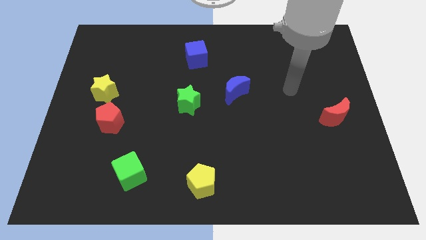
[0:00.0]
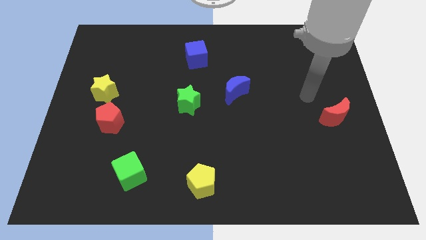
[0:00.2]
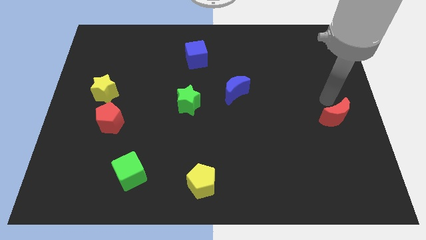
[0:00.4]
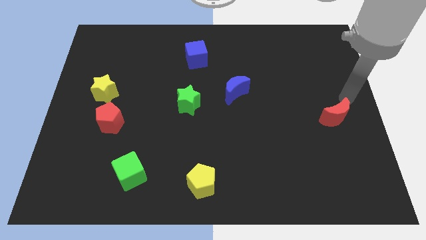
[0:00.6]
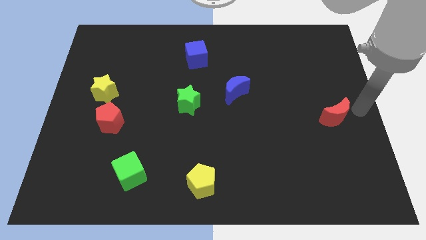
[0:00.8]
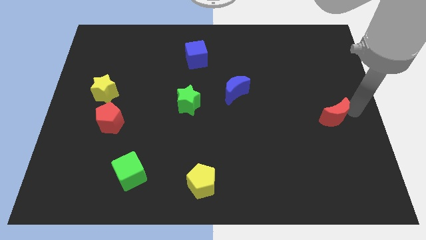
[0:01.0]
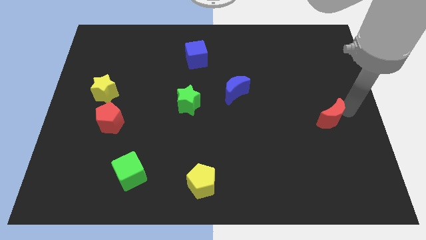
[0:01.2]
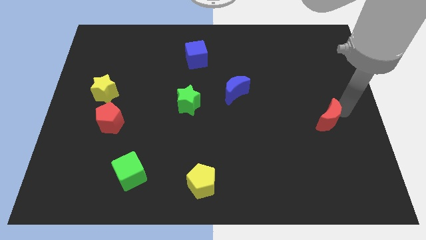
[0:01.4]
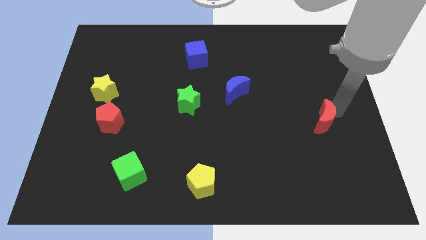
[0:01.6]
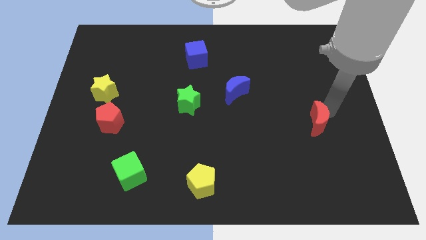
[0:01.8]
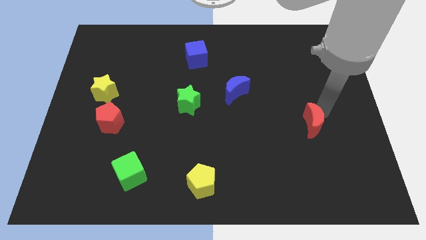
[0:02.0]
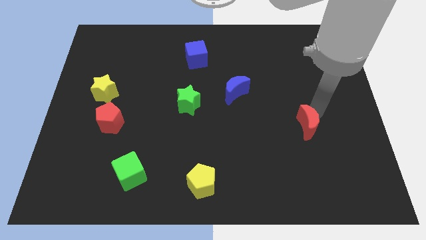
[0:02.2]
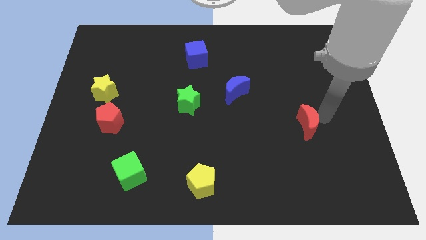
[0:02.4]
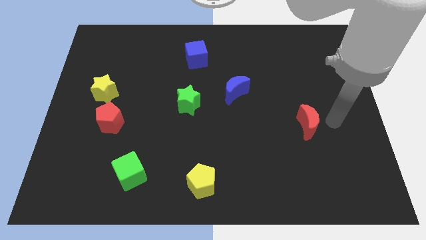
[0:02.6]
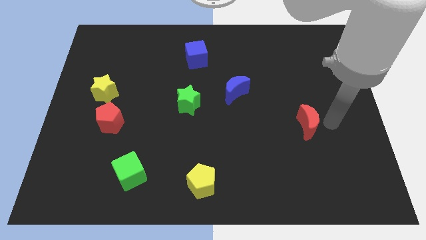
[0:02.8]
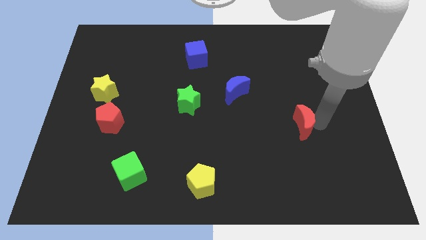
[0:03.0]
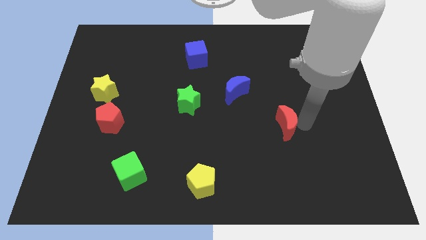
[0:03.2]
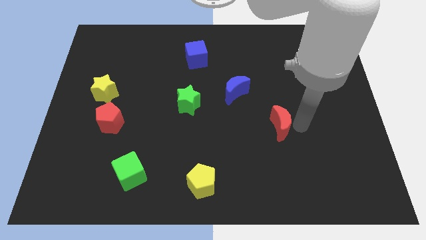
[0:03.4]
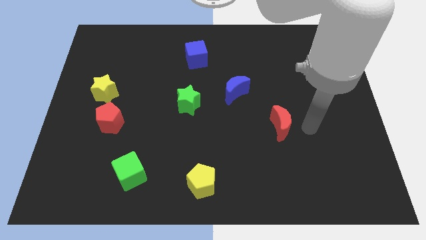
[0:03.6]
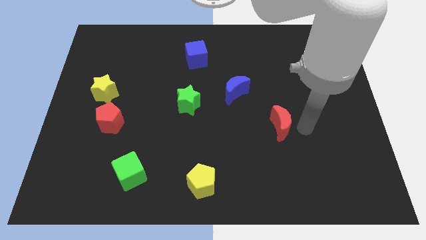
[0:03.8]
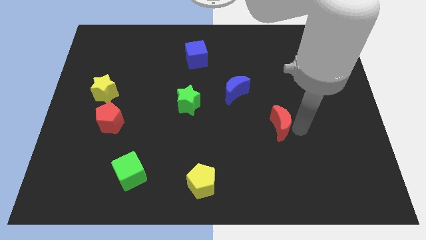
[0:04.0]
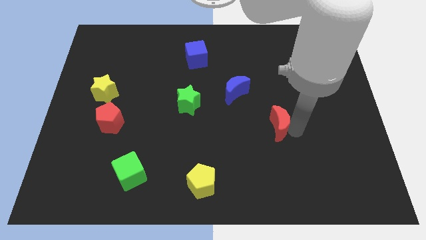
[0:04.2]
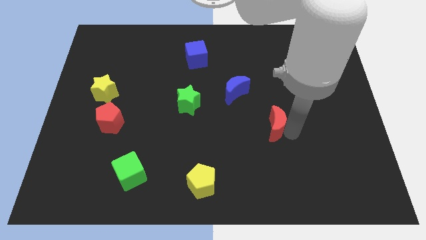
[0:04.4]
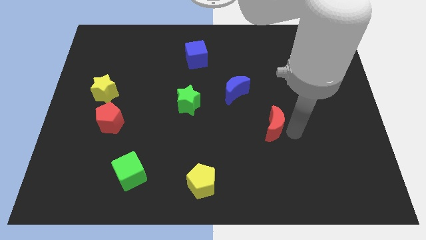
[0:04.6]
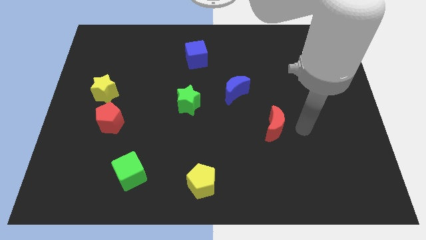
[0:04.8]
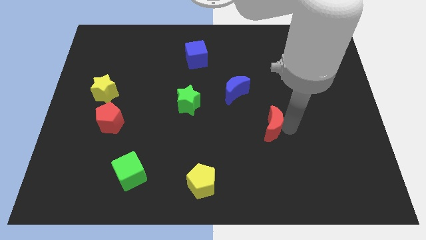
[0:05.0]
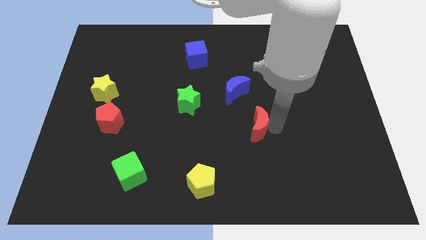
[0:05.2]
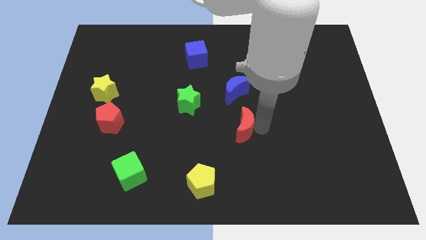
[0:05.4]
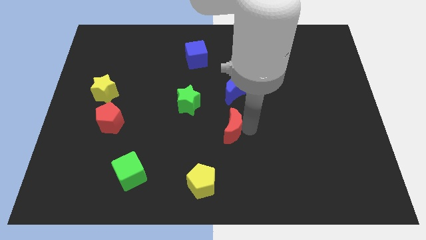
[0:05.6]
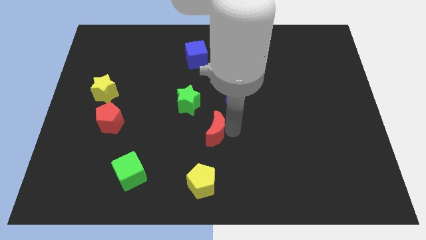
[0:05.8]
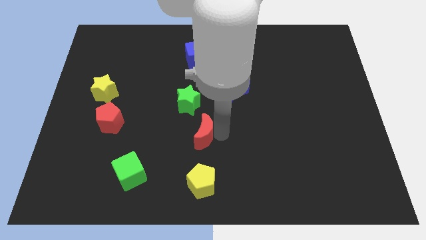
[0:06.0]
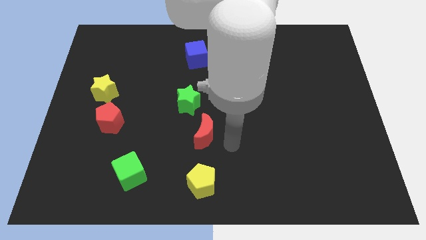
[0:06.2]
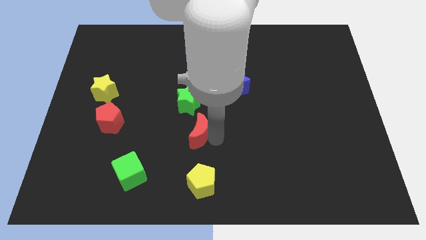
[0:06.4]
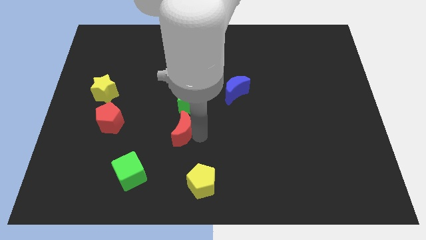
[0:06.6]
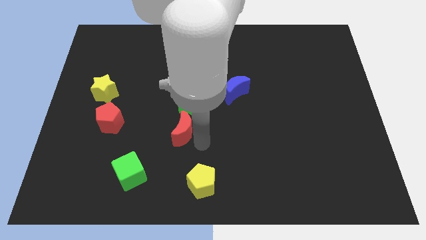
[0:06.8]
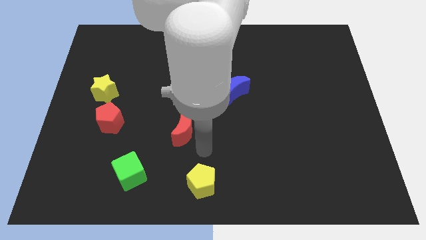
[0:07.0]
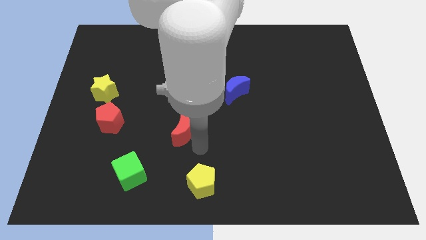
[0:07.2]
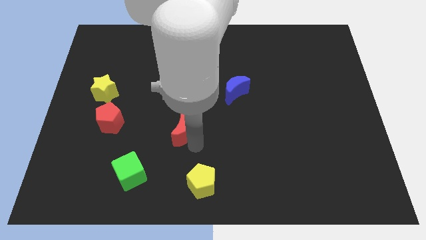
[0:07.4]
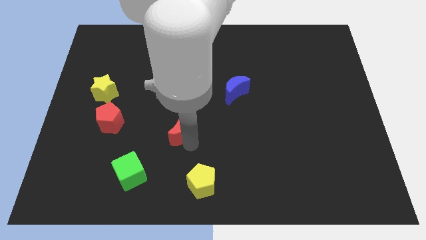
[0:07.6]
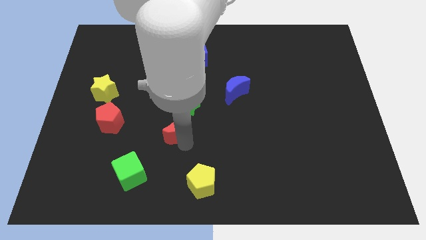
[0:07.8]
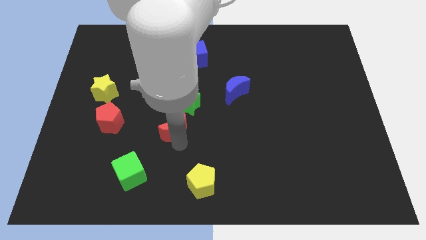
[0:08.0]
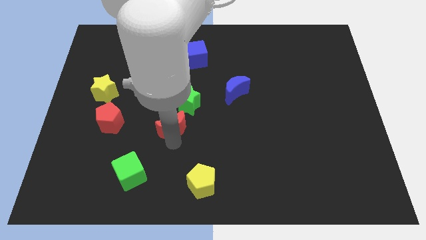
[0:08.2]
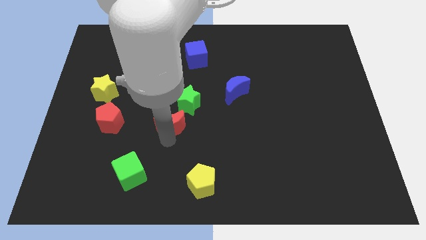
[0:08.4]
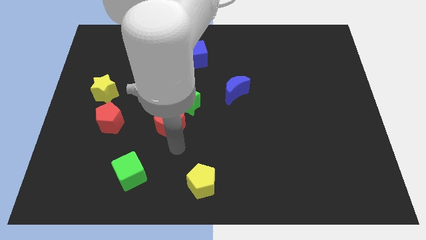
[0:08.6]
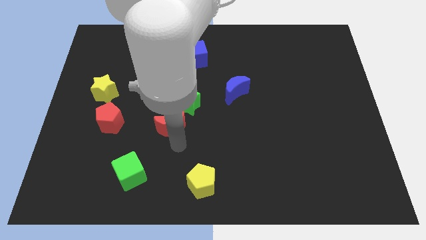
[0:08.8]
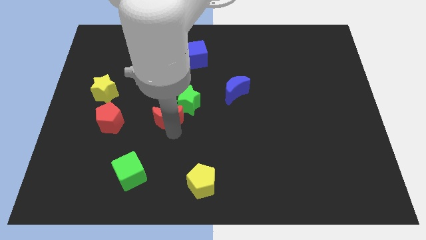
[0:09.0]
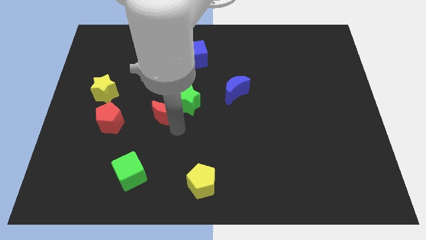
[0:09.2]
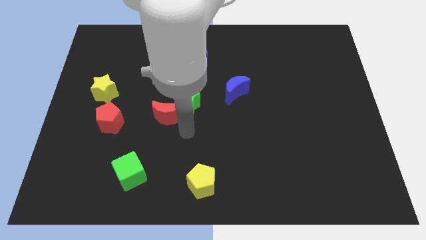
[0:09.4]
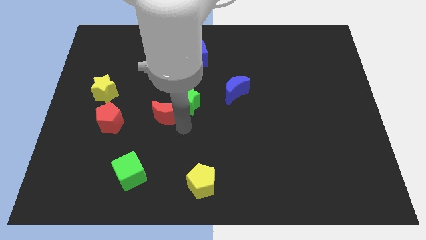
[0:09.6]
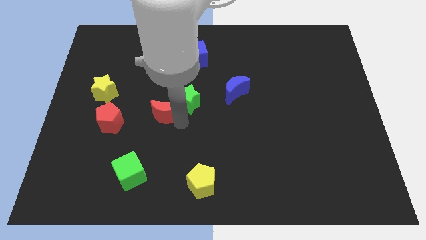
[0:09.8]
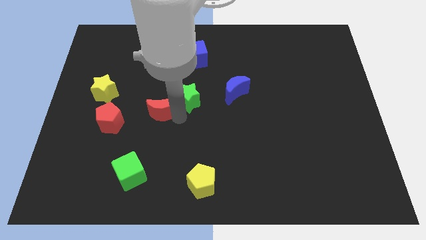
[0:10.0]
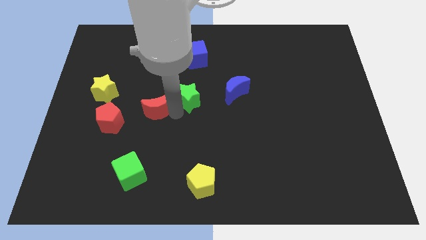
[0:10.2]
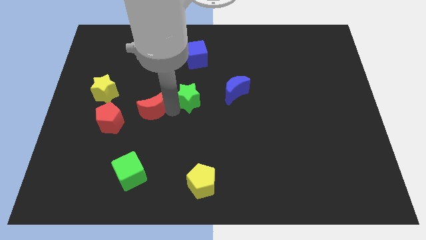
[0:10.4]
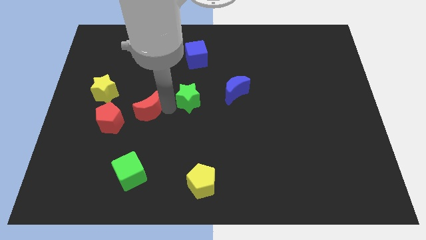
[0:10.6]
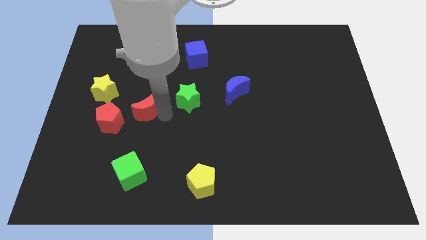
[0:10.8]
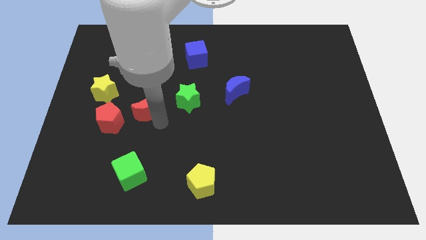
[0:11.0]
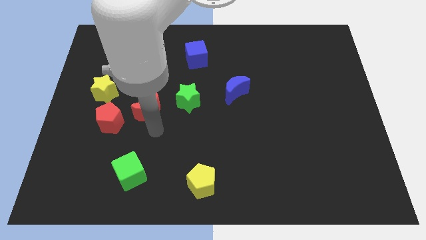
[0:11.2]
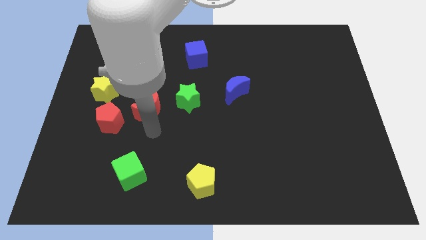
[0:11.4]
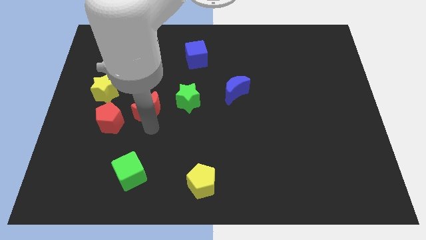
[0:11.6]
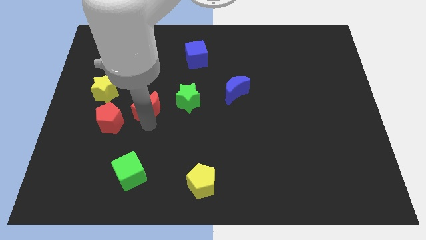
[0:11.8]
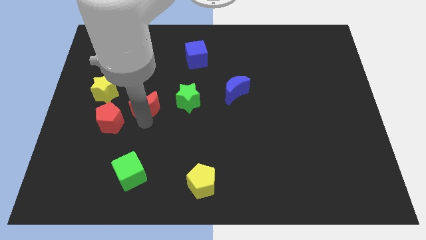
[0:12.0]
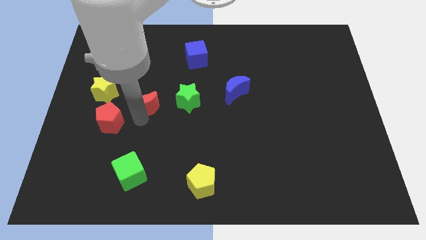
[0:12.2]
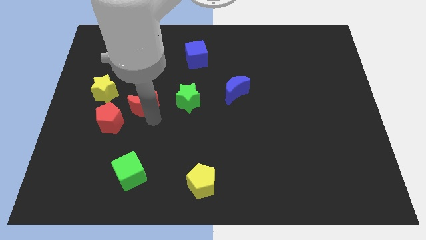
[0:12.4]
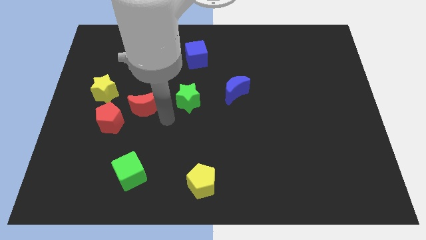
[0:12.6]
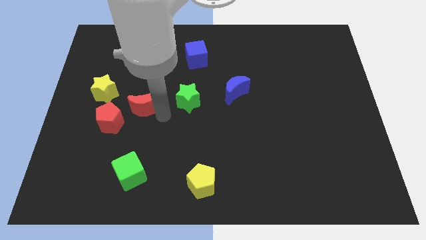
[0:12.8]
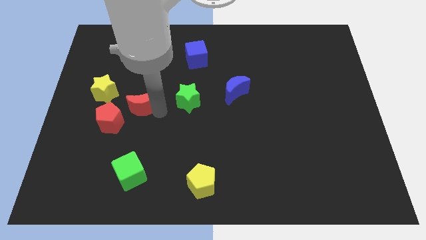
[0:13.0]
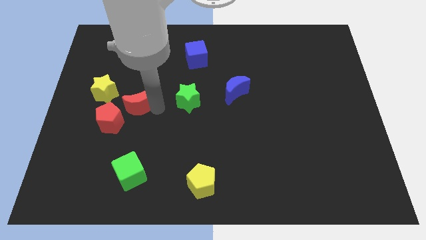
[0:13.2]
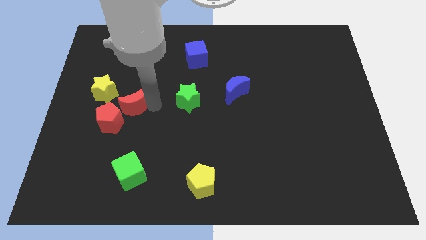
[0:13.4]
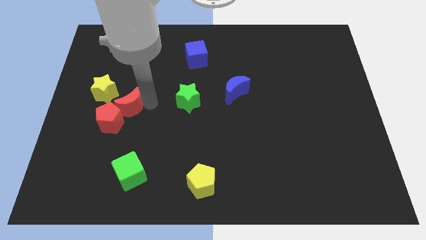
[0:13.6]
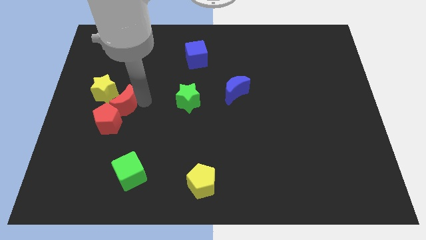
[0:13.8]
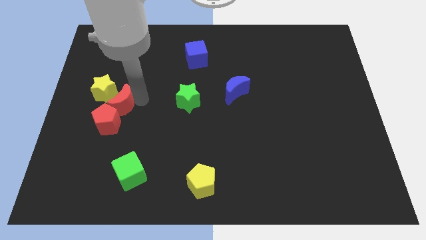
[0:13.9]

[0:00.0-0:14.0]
slide the red moon close to the yellow star
